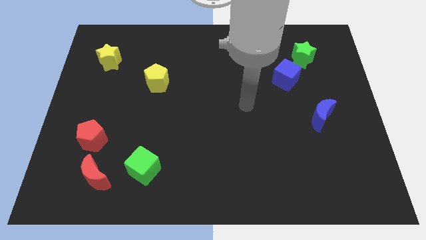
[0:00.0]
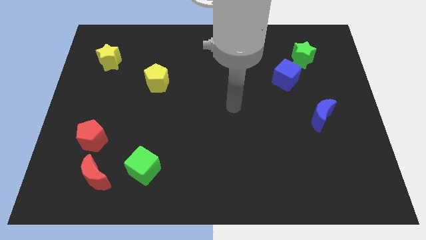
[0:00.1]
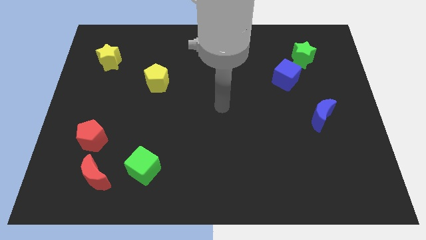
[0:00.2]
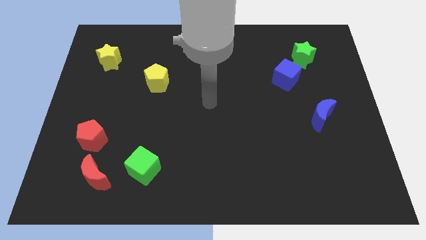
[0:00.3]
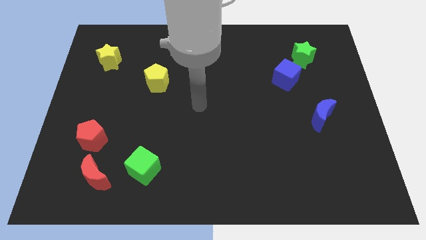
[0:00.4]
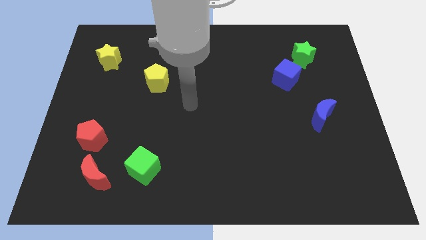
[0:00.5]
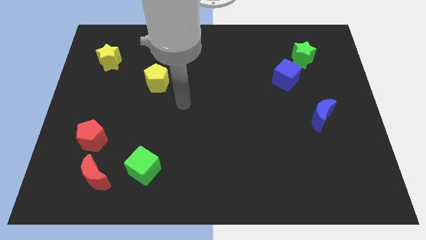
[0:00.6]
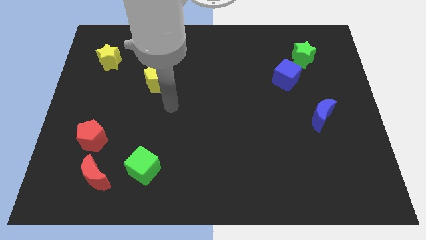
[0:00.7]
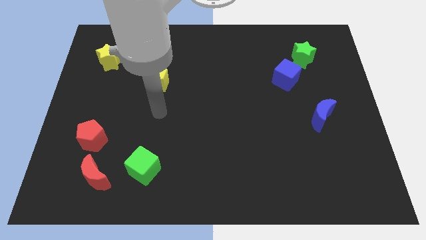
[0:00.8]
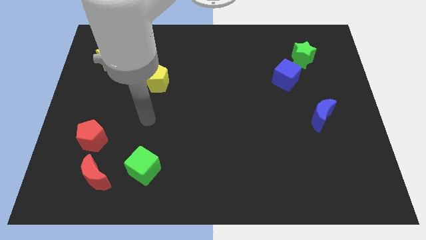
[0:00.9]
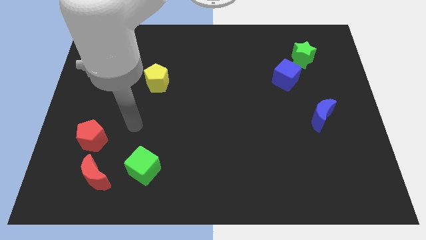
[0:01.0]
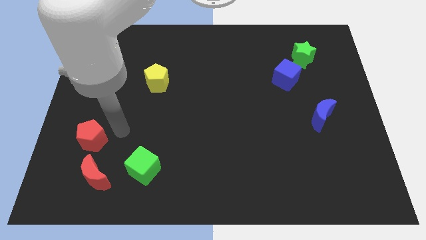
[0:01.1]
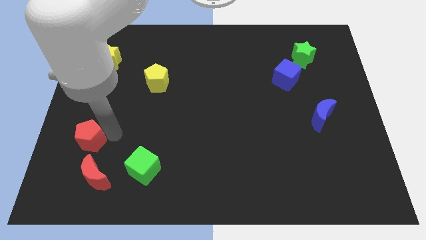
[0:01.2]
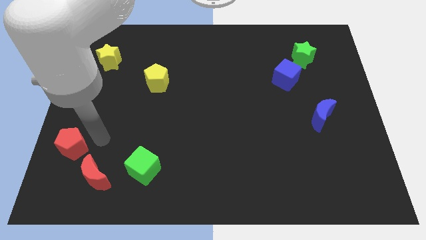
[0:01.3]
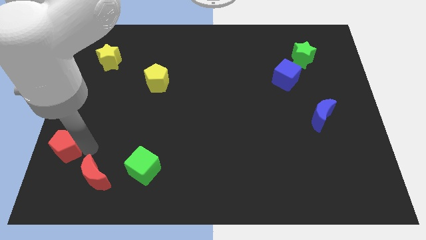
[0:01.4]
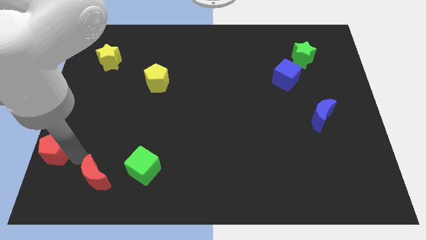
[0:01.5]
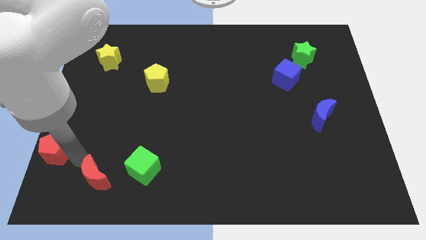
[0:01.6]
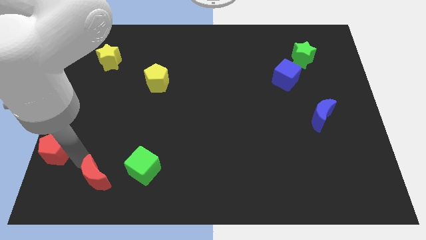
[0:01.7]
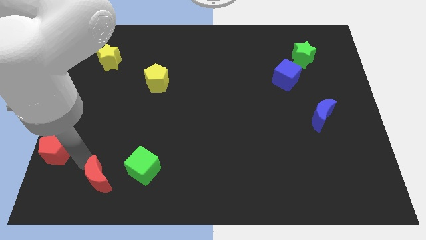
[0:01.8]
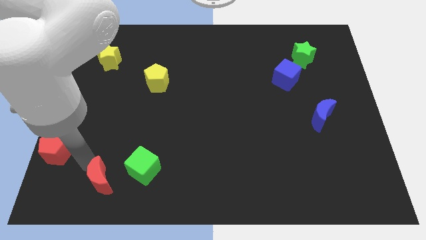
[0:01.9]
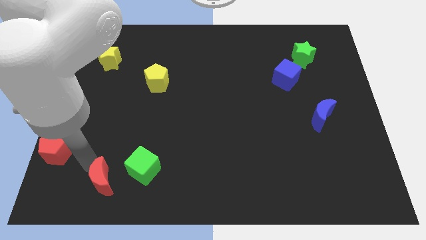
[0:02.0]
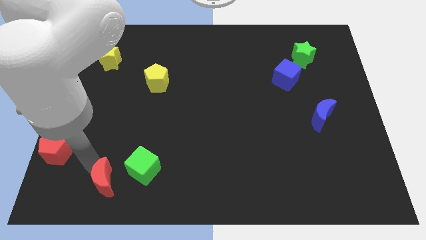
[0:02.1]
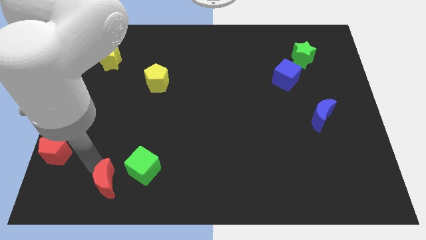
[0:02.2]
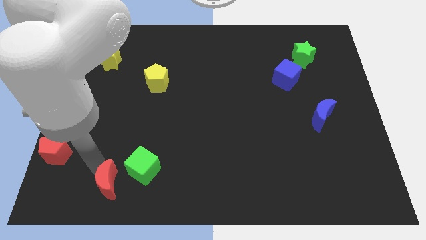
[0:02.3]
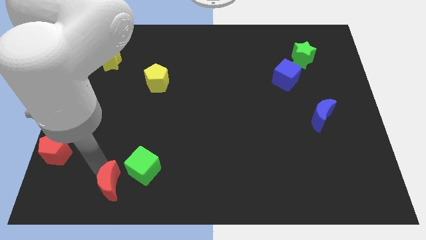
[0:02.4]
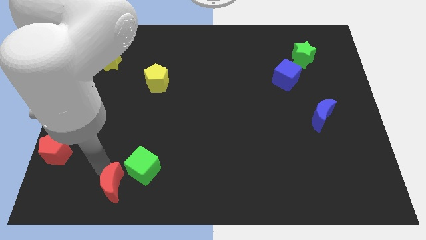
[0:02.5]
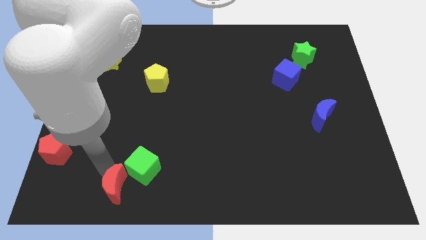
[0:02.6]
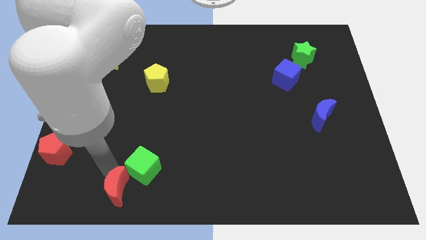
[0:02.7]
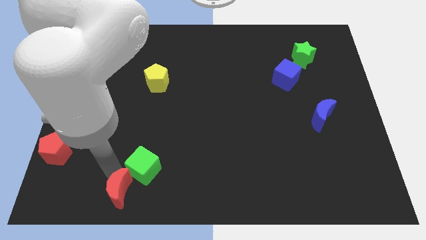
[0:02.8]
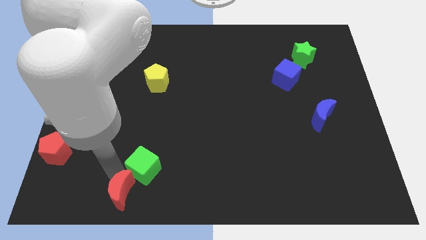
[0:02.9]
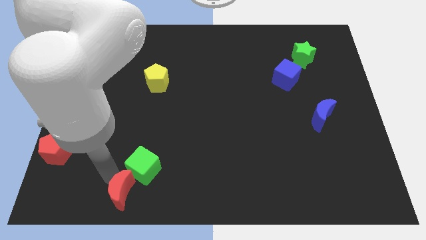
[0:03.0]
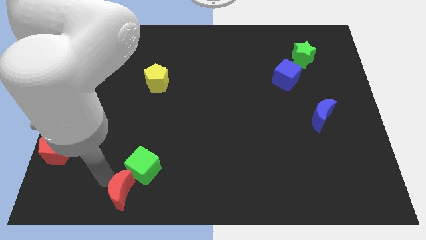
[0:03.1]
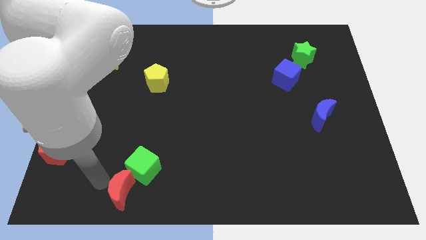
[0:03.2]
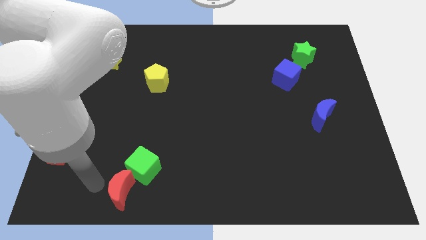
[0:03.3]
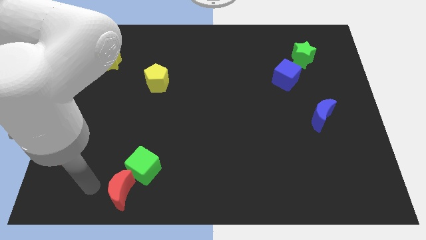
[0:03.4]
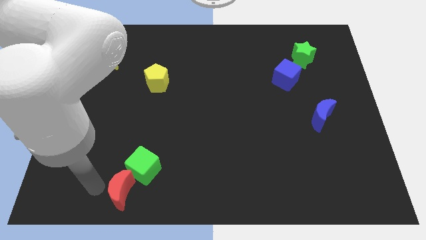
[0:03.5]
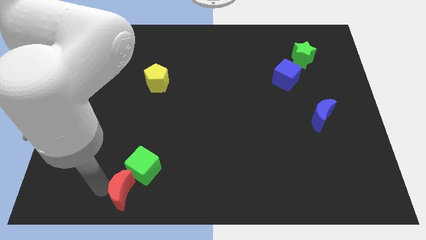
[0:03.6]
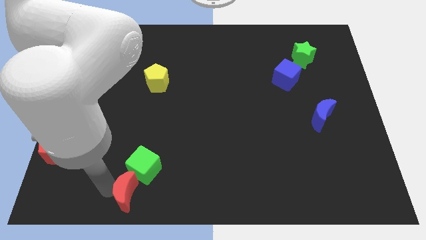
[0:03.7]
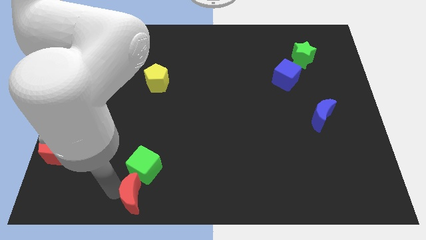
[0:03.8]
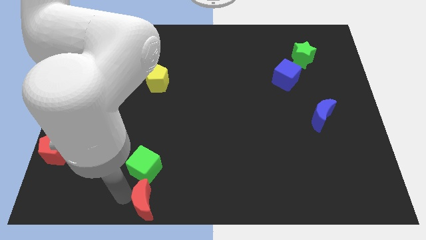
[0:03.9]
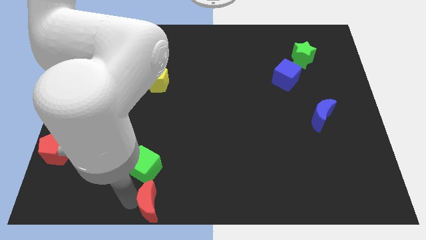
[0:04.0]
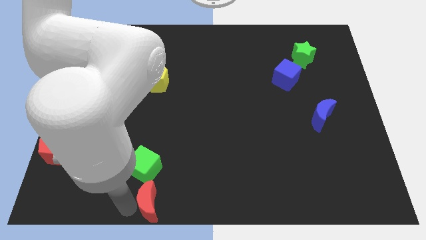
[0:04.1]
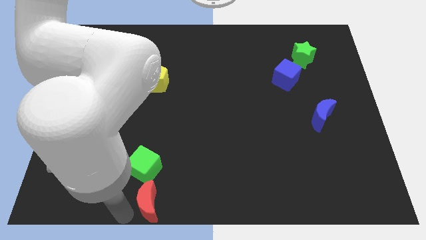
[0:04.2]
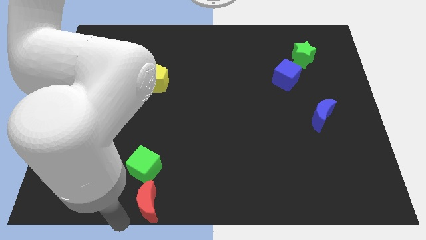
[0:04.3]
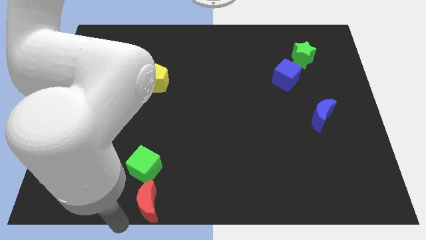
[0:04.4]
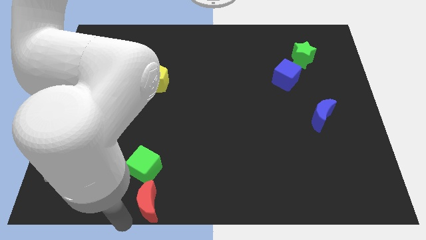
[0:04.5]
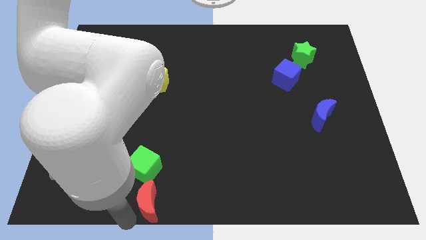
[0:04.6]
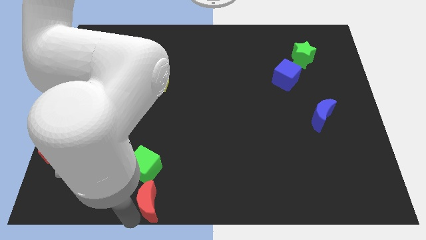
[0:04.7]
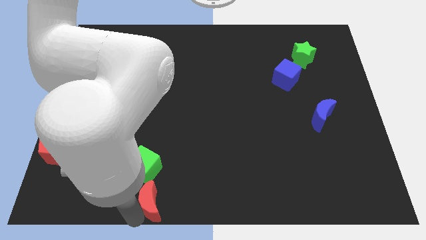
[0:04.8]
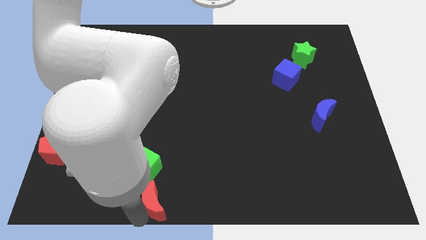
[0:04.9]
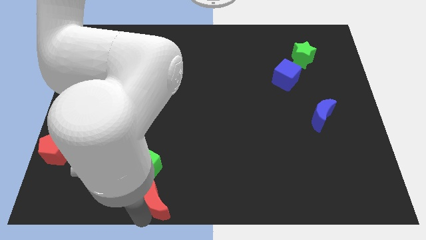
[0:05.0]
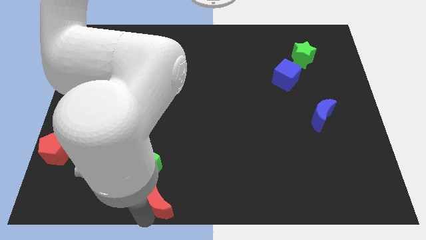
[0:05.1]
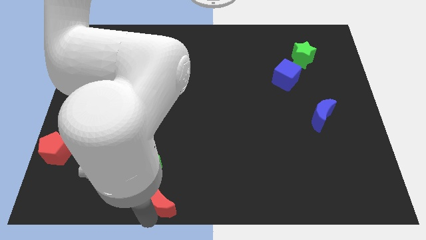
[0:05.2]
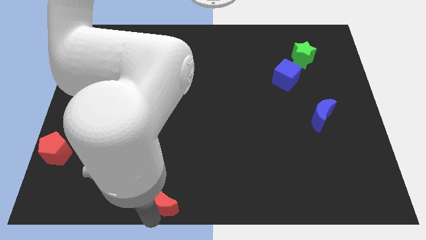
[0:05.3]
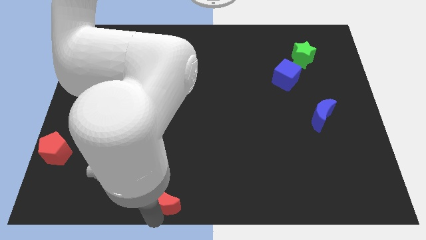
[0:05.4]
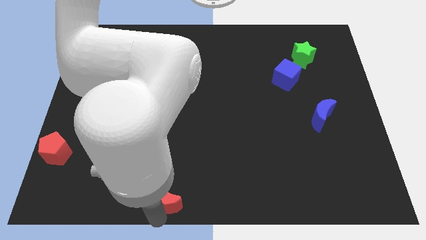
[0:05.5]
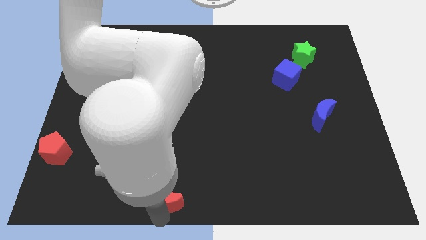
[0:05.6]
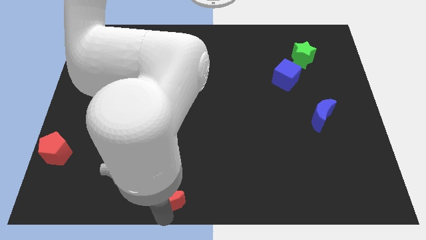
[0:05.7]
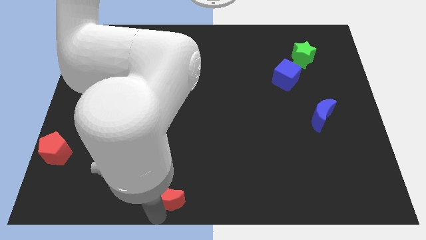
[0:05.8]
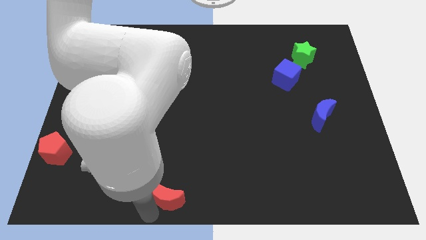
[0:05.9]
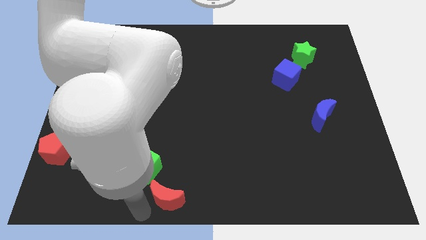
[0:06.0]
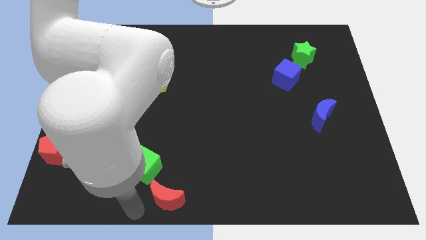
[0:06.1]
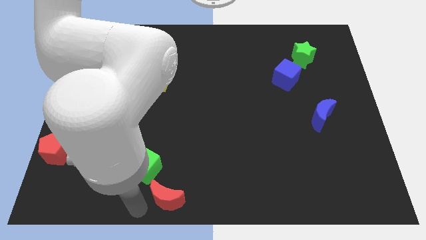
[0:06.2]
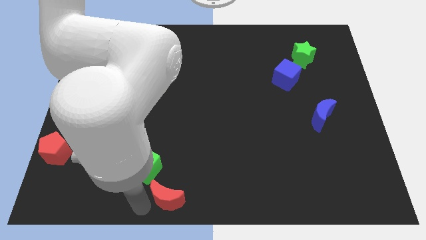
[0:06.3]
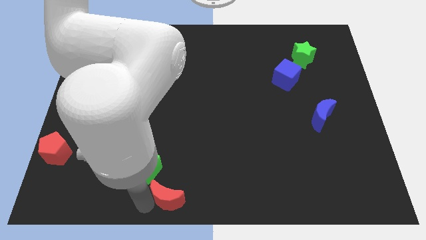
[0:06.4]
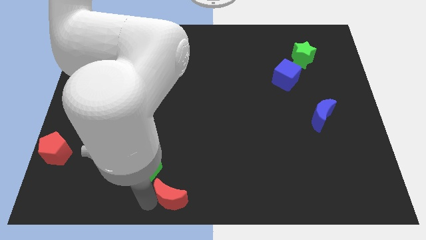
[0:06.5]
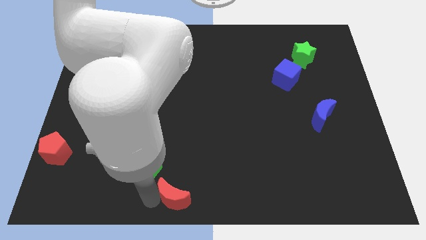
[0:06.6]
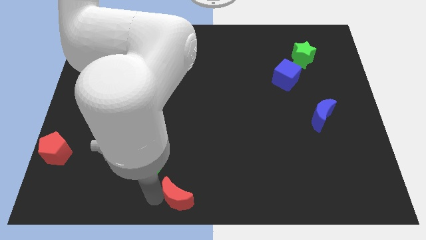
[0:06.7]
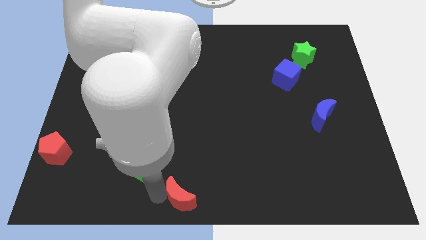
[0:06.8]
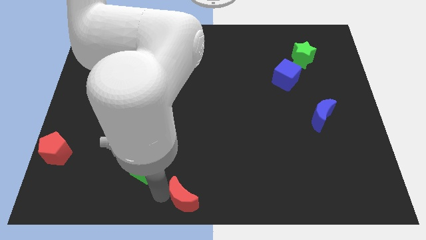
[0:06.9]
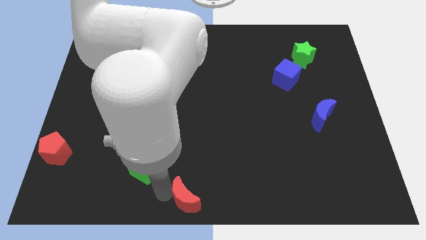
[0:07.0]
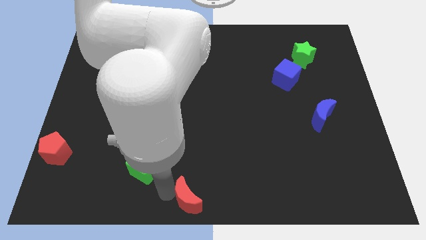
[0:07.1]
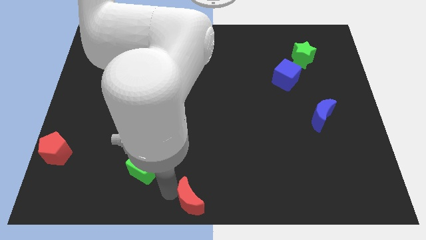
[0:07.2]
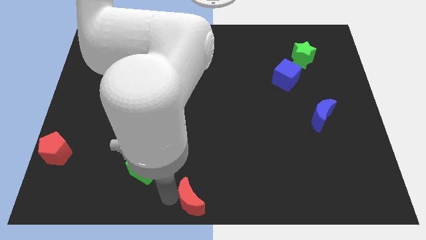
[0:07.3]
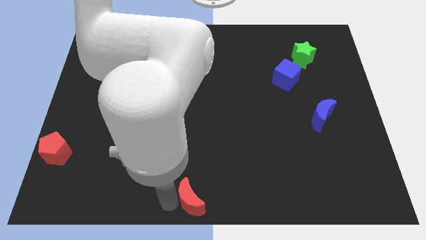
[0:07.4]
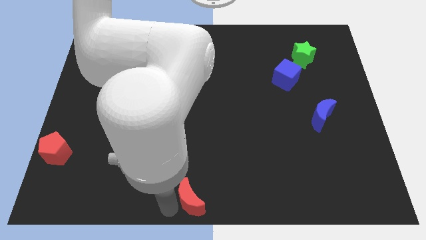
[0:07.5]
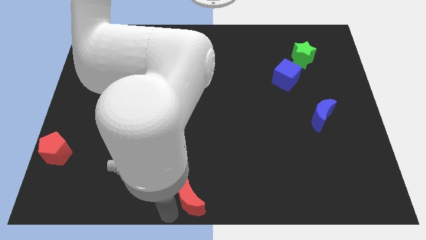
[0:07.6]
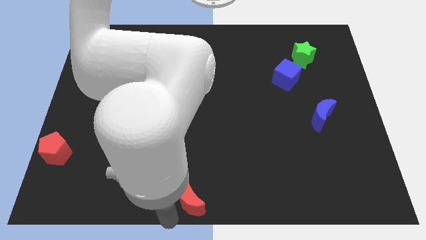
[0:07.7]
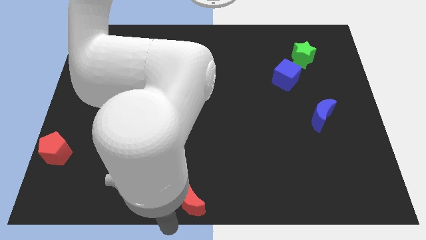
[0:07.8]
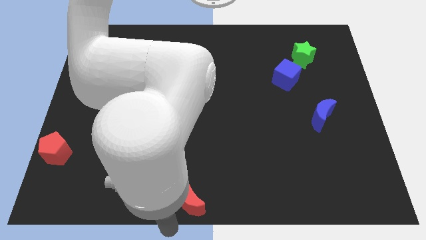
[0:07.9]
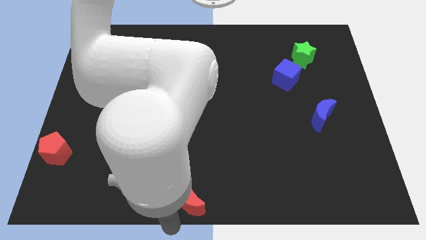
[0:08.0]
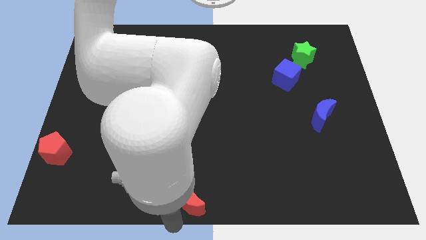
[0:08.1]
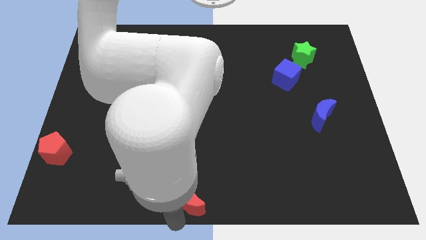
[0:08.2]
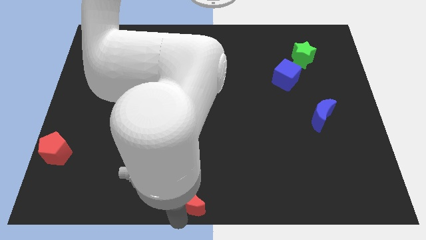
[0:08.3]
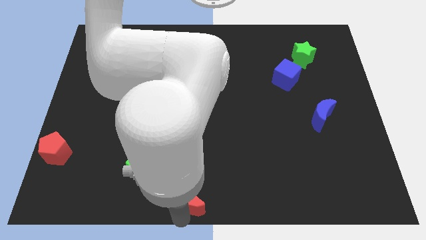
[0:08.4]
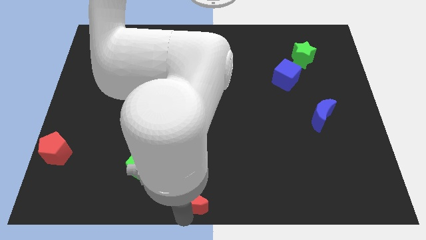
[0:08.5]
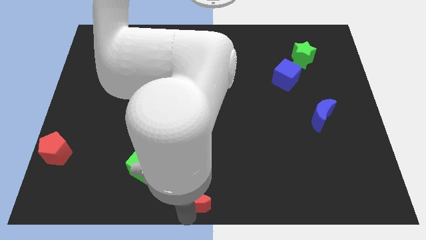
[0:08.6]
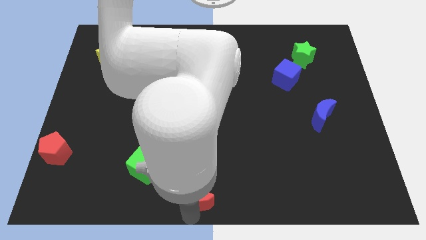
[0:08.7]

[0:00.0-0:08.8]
move the red moon right
